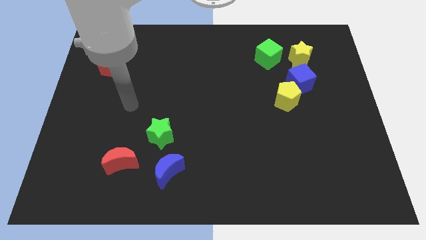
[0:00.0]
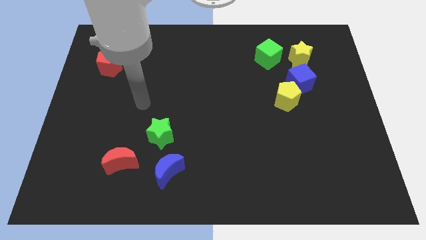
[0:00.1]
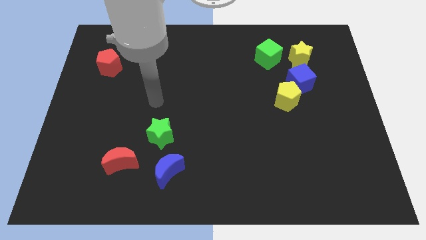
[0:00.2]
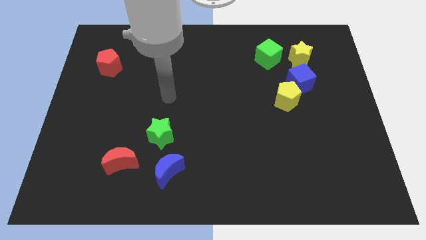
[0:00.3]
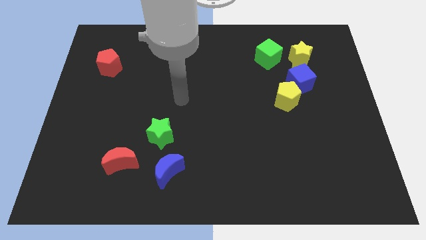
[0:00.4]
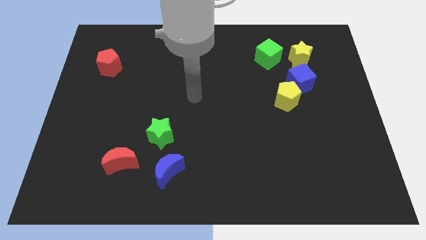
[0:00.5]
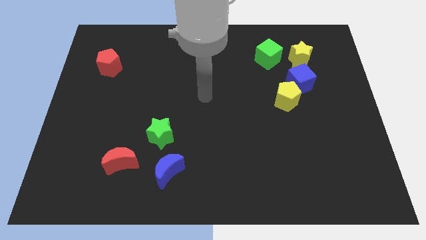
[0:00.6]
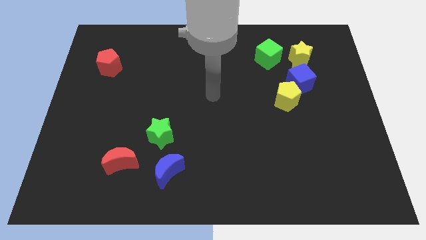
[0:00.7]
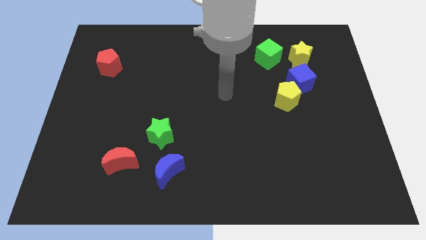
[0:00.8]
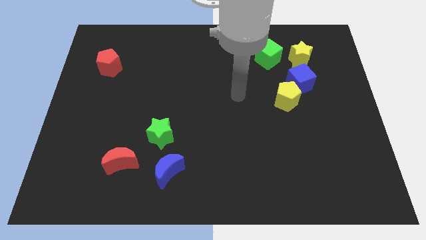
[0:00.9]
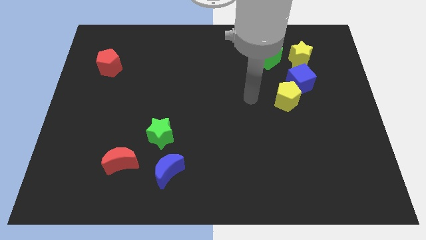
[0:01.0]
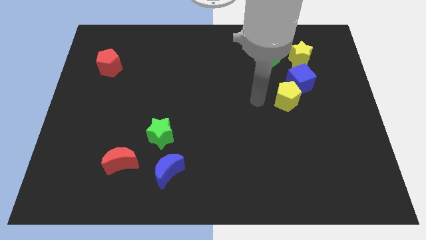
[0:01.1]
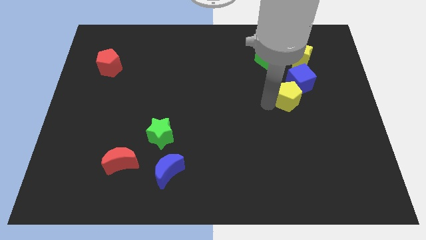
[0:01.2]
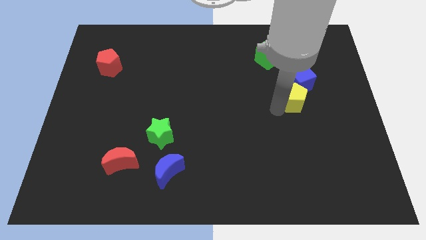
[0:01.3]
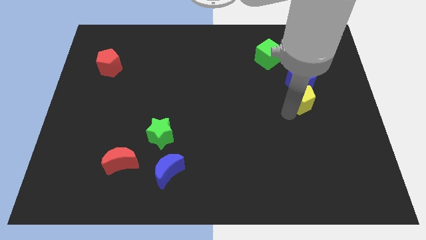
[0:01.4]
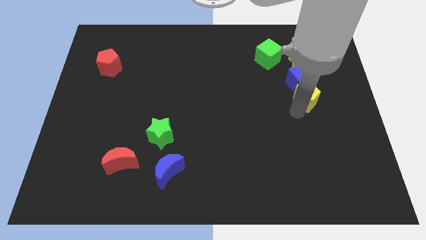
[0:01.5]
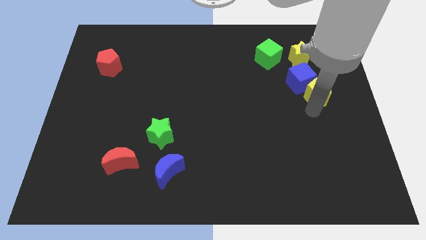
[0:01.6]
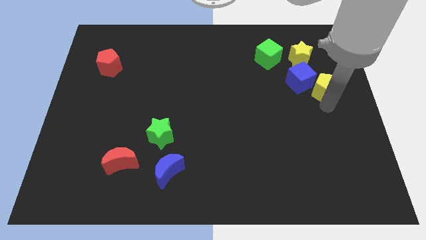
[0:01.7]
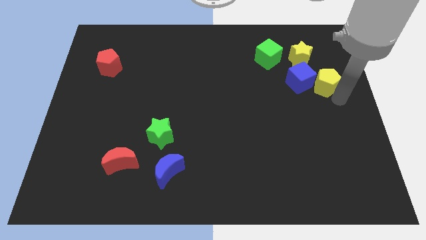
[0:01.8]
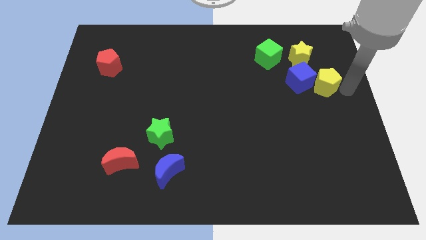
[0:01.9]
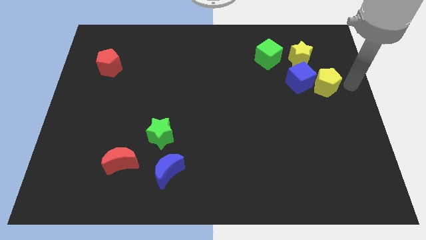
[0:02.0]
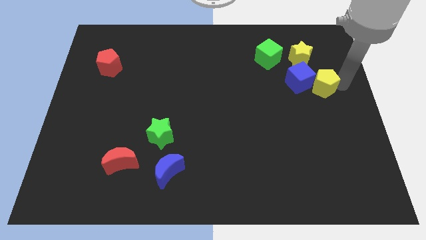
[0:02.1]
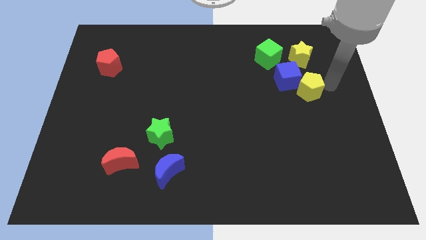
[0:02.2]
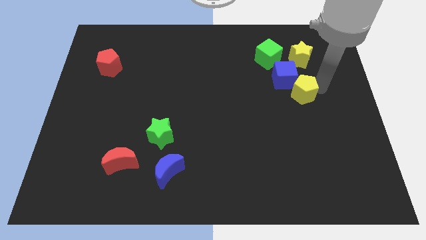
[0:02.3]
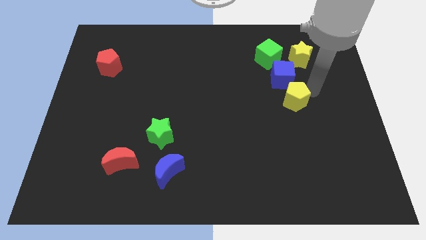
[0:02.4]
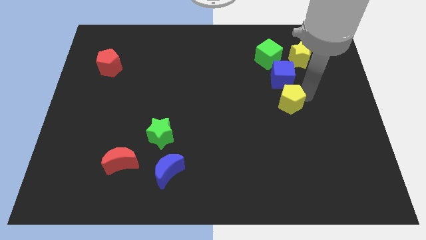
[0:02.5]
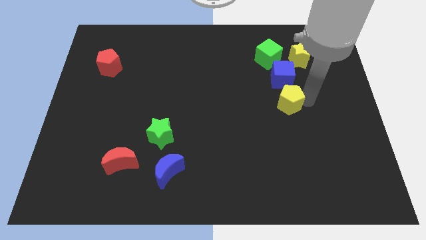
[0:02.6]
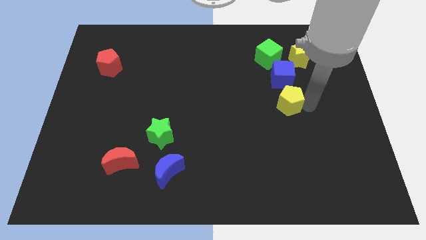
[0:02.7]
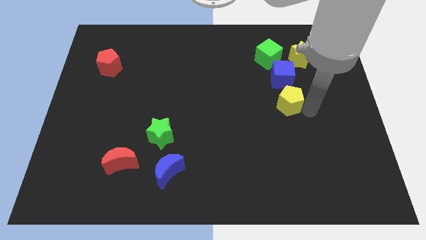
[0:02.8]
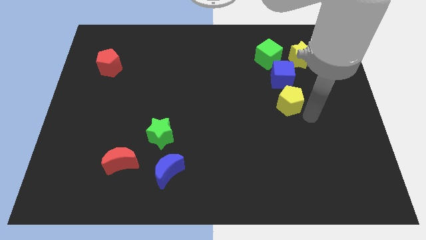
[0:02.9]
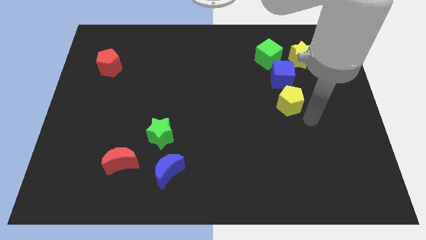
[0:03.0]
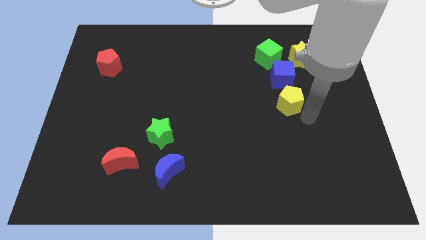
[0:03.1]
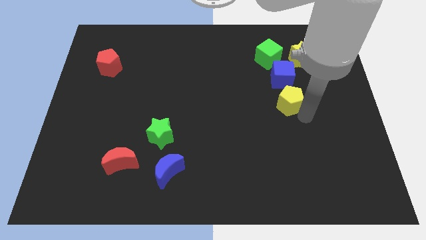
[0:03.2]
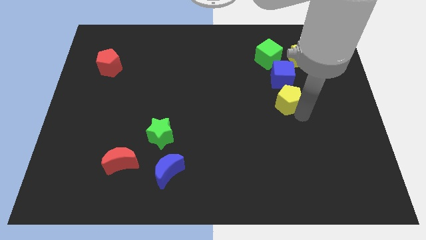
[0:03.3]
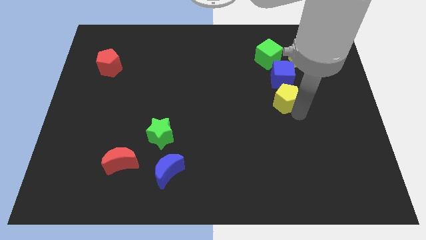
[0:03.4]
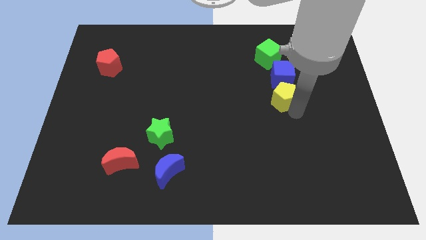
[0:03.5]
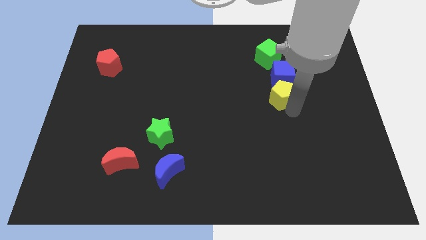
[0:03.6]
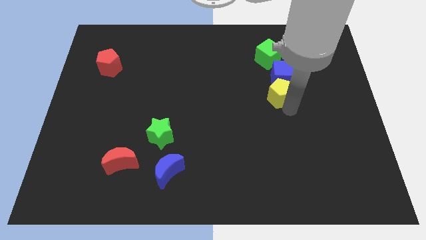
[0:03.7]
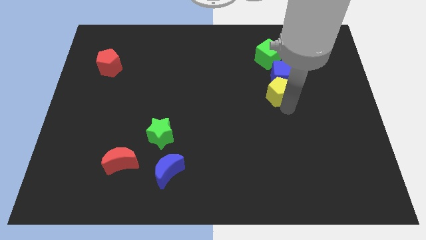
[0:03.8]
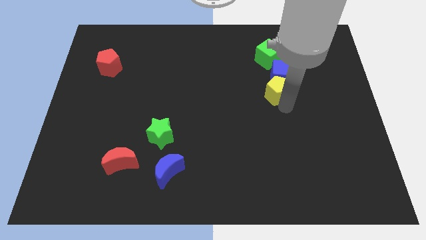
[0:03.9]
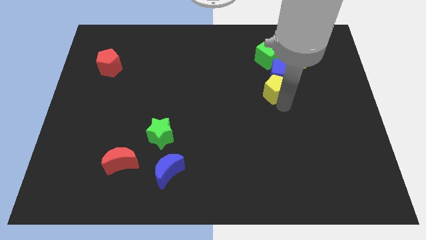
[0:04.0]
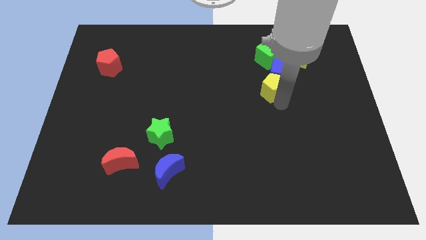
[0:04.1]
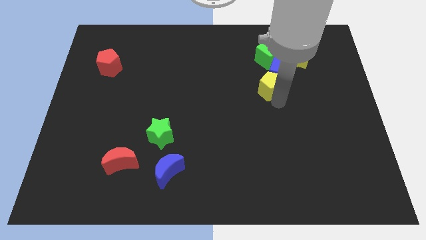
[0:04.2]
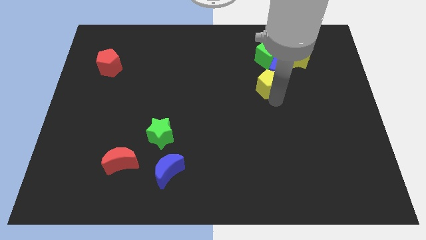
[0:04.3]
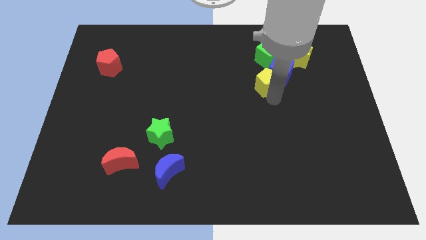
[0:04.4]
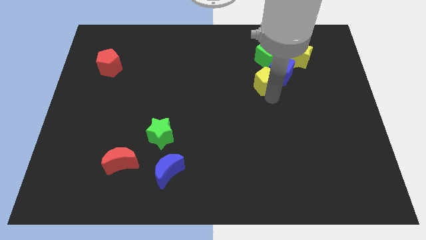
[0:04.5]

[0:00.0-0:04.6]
slide the yellow pentagon a bit upwards and left

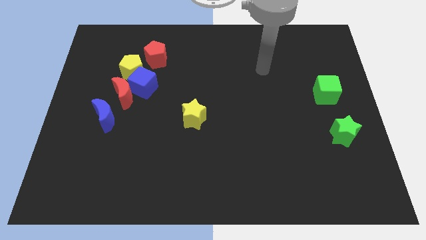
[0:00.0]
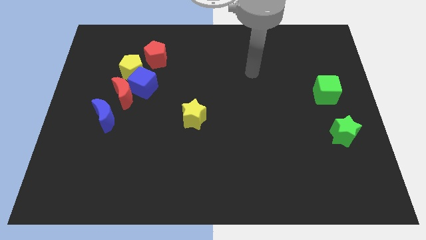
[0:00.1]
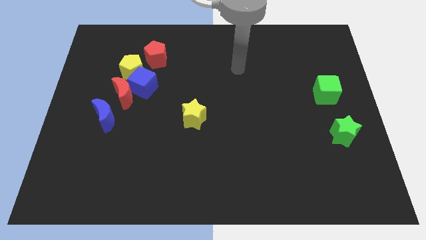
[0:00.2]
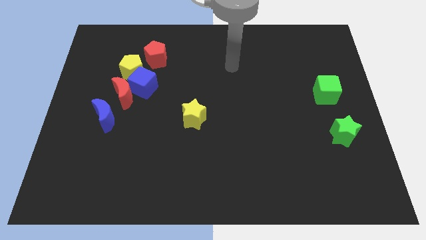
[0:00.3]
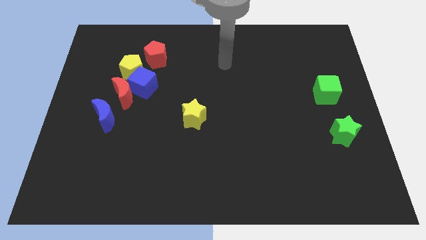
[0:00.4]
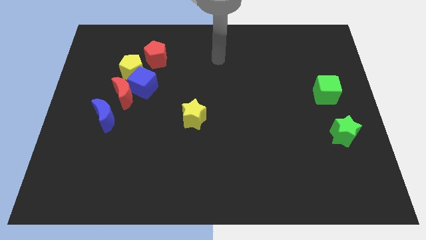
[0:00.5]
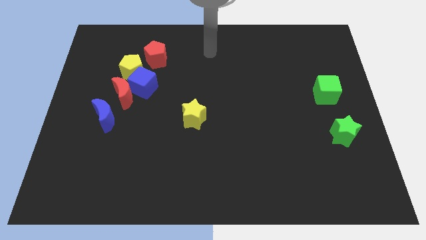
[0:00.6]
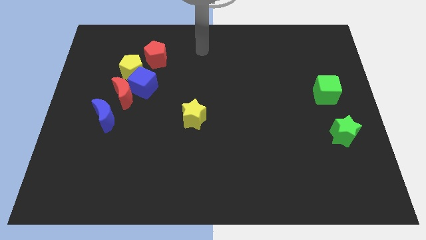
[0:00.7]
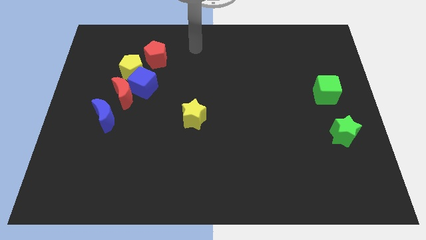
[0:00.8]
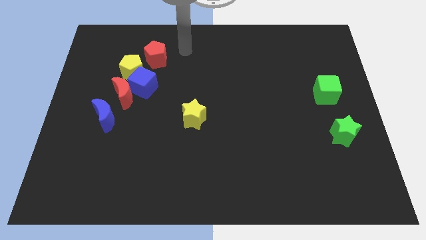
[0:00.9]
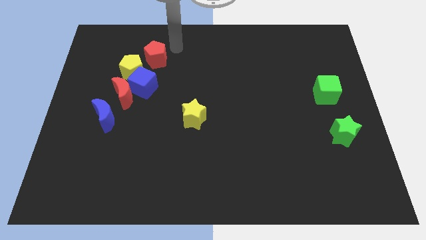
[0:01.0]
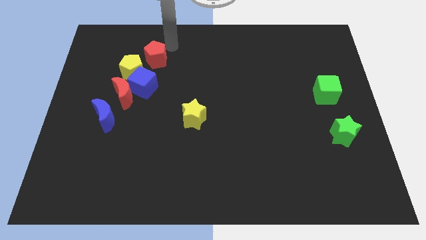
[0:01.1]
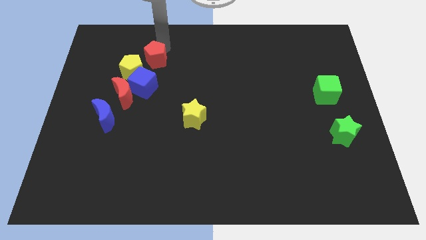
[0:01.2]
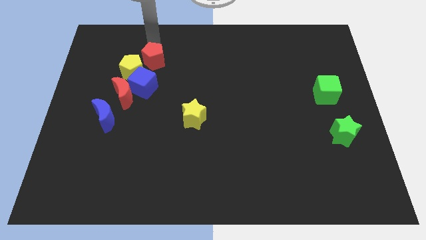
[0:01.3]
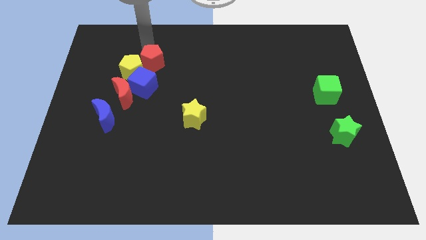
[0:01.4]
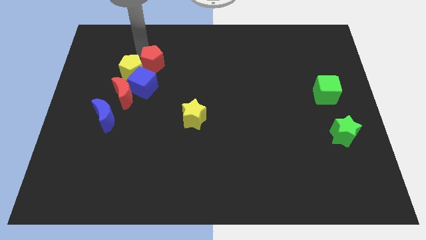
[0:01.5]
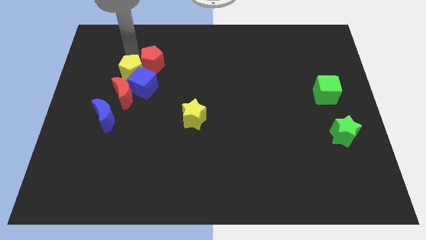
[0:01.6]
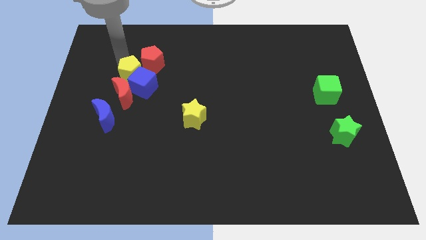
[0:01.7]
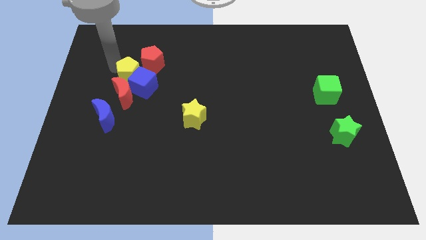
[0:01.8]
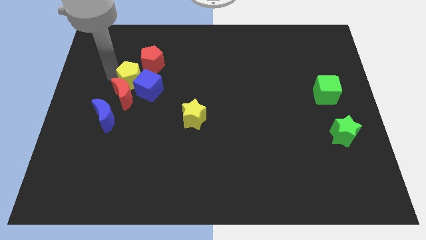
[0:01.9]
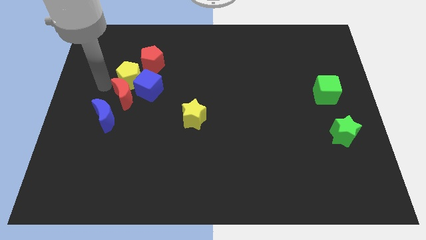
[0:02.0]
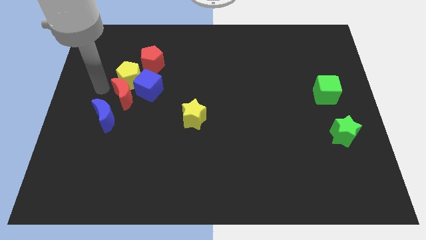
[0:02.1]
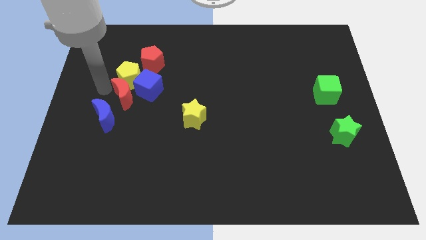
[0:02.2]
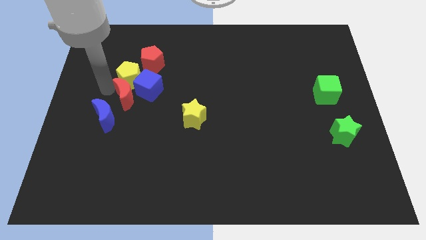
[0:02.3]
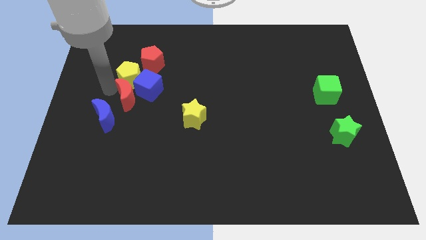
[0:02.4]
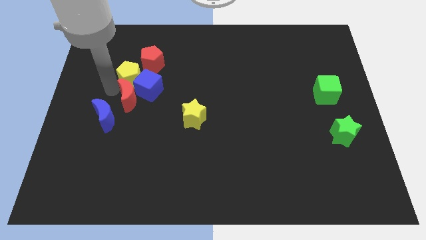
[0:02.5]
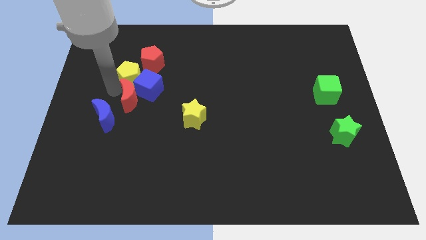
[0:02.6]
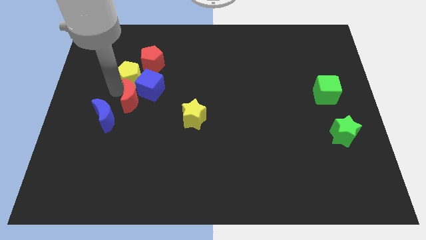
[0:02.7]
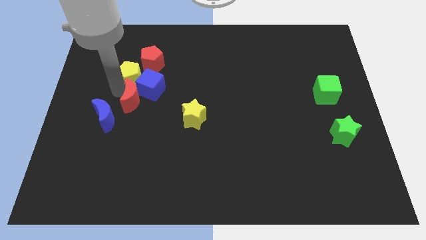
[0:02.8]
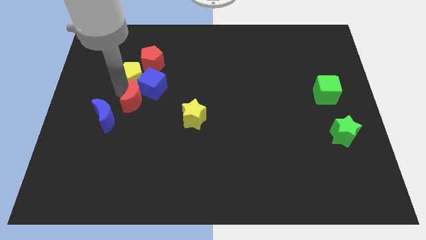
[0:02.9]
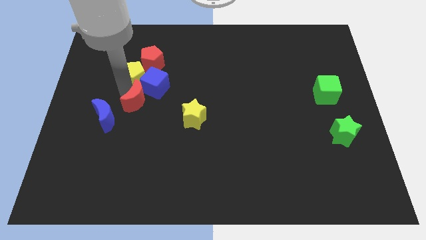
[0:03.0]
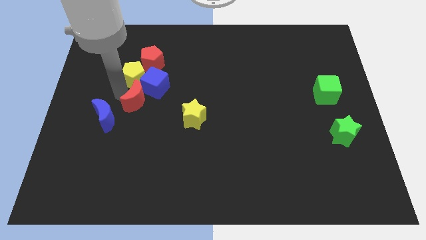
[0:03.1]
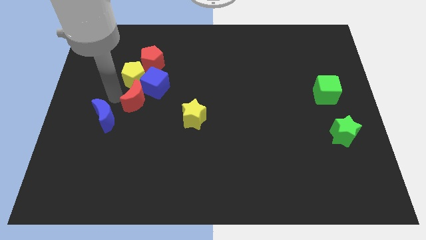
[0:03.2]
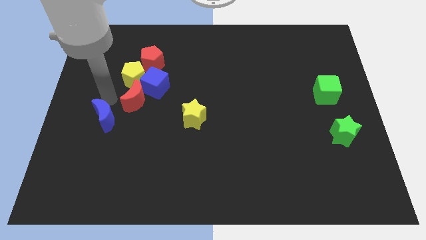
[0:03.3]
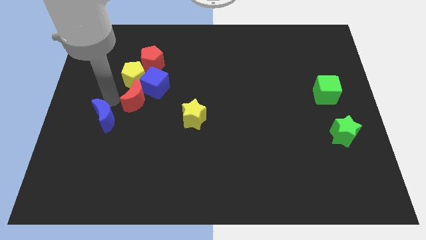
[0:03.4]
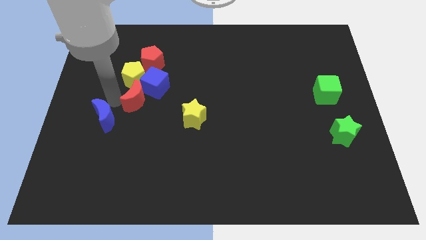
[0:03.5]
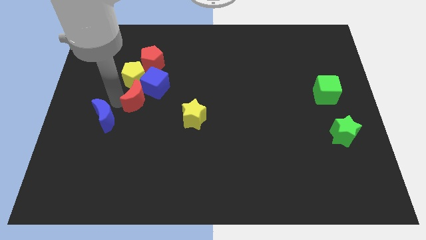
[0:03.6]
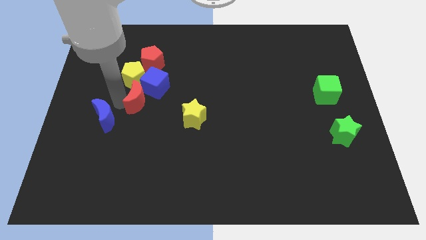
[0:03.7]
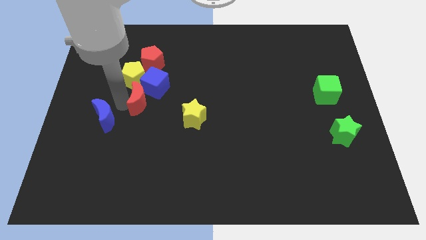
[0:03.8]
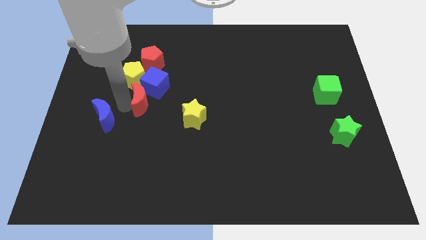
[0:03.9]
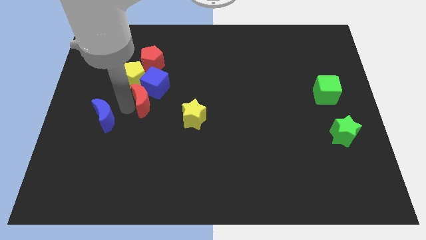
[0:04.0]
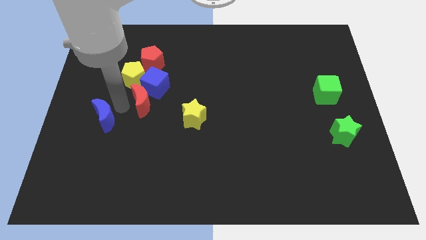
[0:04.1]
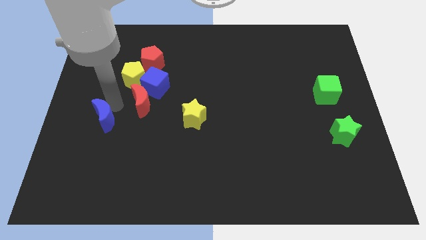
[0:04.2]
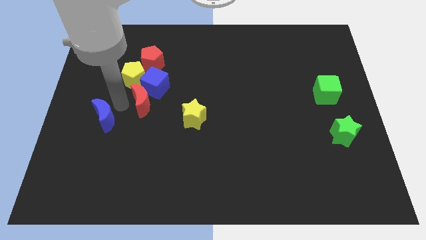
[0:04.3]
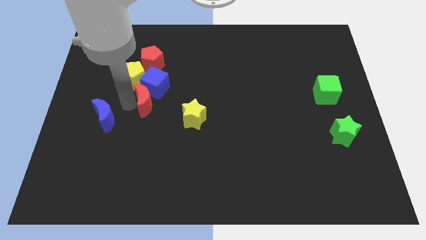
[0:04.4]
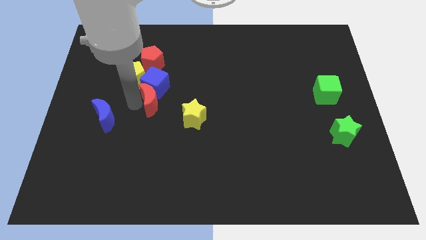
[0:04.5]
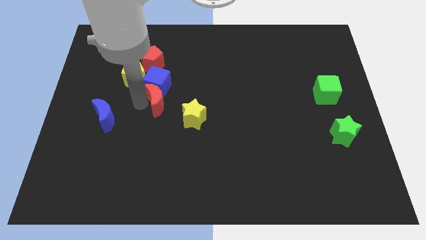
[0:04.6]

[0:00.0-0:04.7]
slightly slide the red moon to the right
